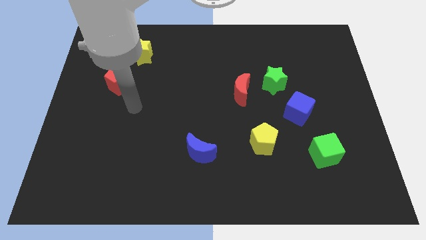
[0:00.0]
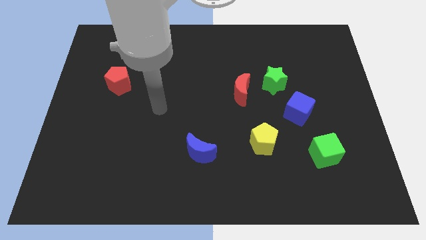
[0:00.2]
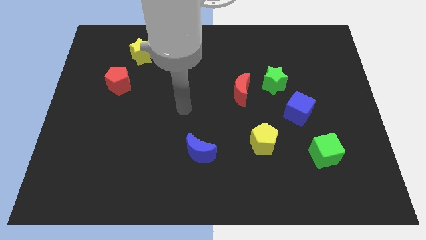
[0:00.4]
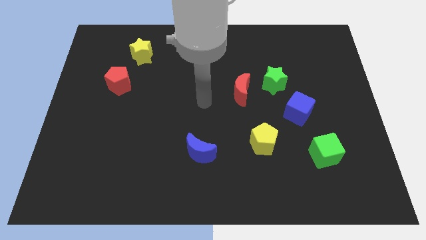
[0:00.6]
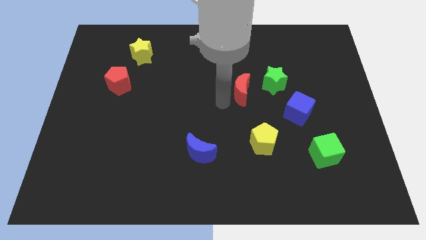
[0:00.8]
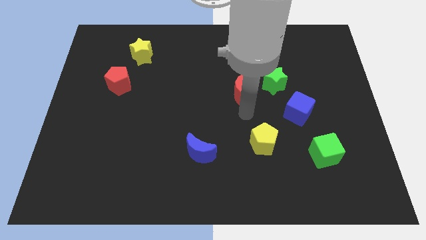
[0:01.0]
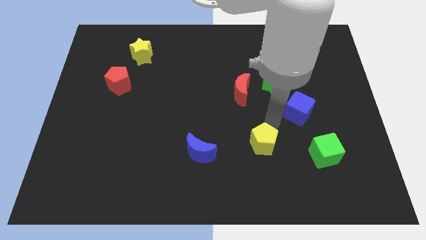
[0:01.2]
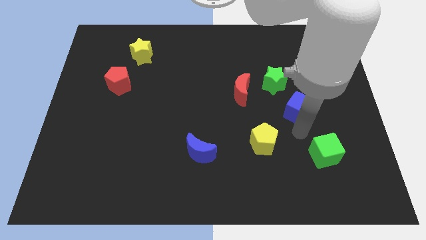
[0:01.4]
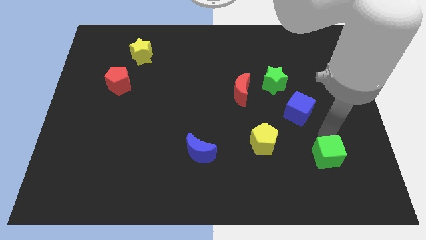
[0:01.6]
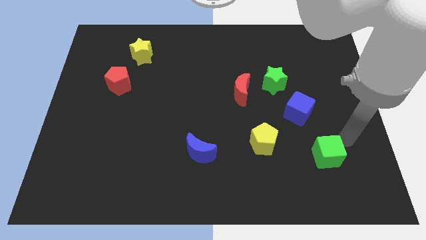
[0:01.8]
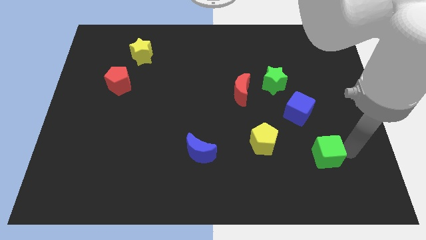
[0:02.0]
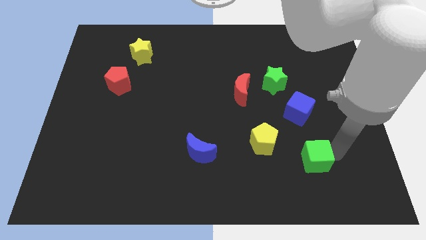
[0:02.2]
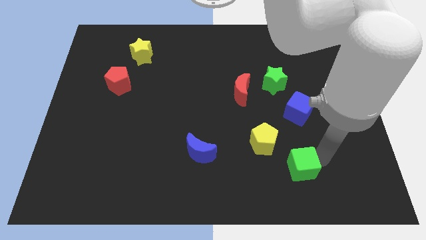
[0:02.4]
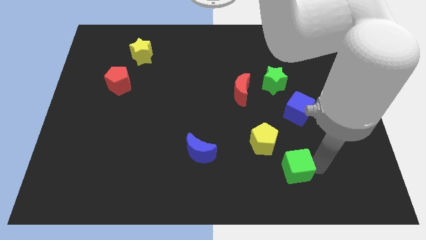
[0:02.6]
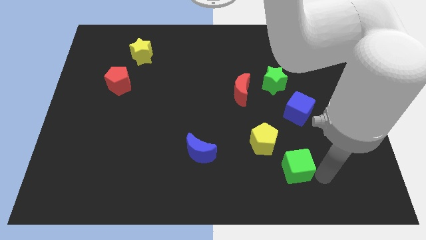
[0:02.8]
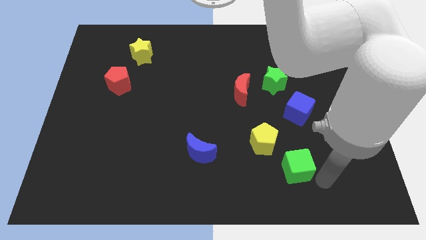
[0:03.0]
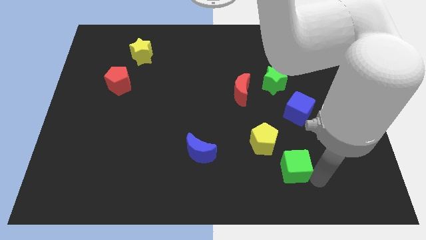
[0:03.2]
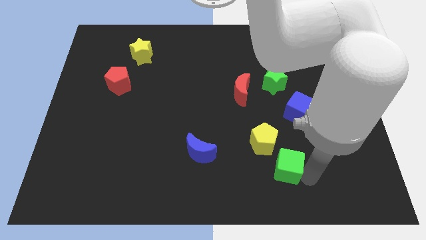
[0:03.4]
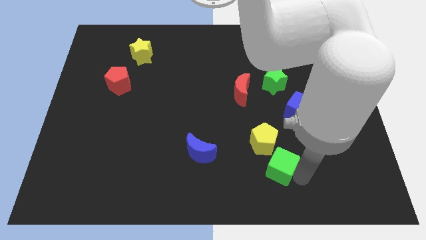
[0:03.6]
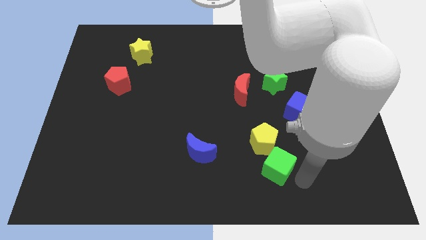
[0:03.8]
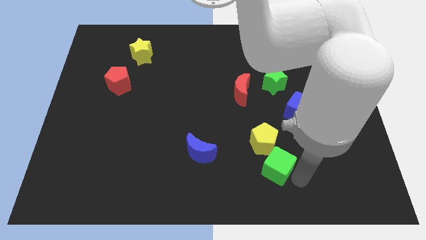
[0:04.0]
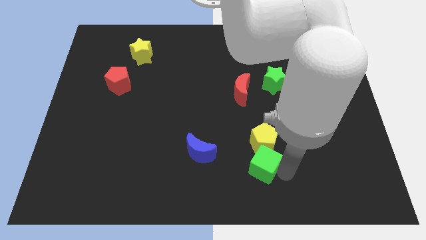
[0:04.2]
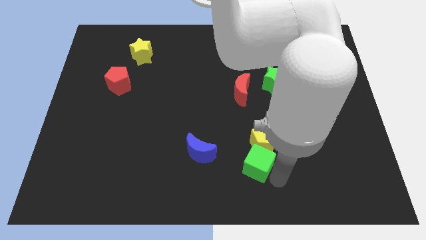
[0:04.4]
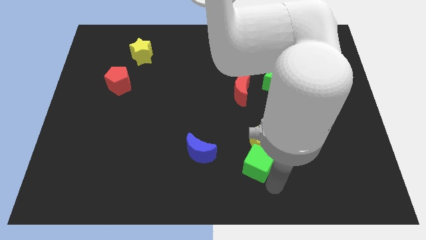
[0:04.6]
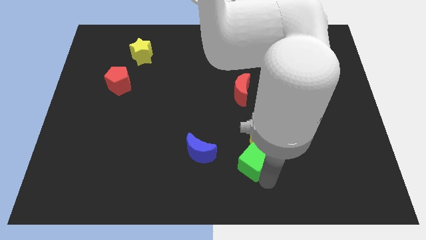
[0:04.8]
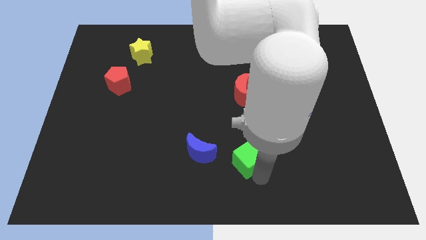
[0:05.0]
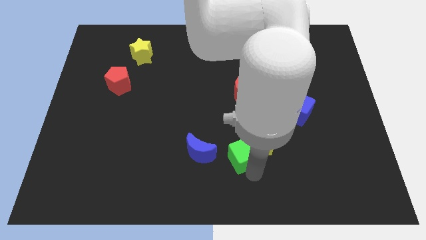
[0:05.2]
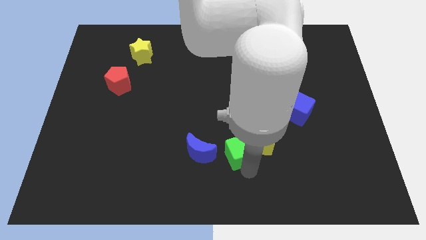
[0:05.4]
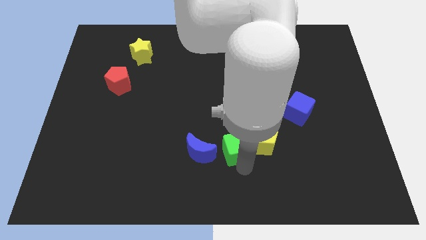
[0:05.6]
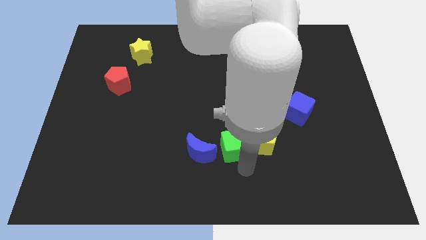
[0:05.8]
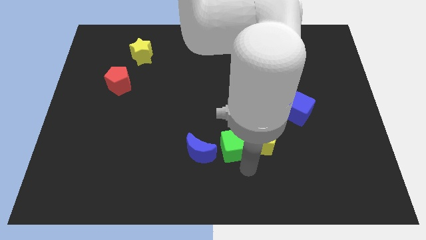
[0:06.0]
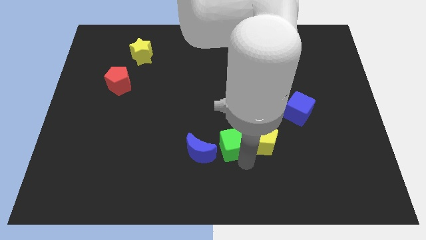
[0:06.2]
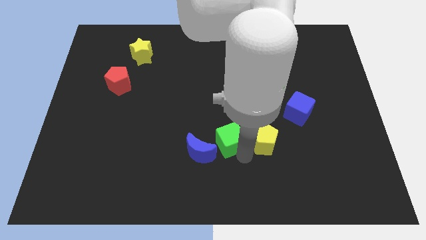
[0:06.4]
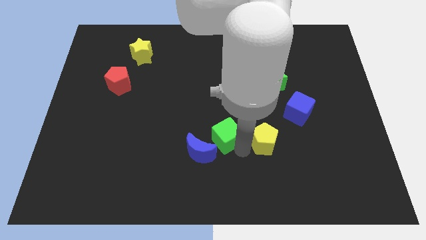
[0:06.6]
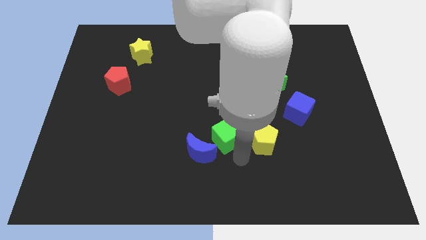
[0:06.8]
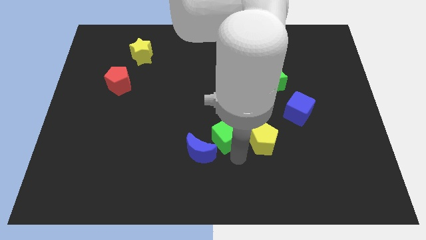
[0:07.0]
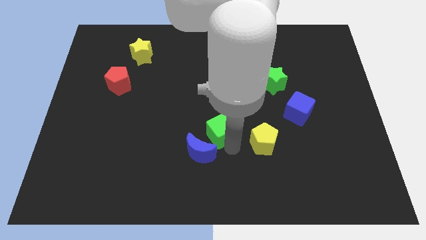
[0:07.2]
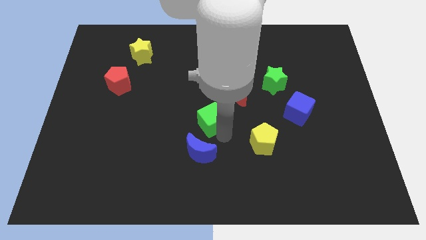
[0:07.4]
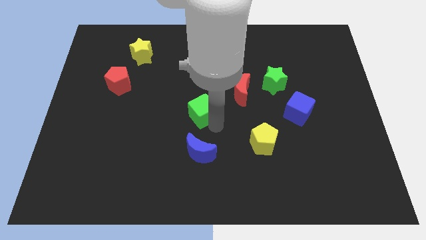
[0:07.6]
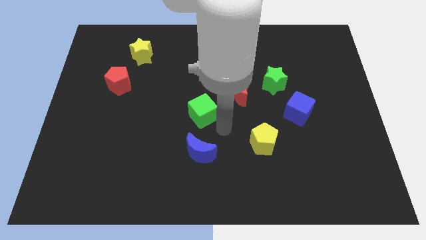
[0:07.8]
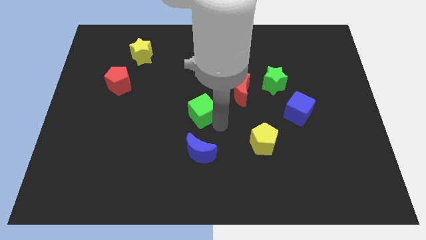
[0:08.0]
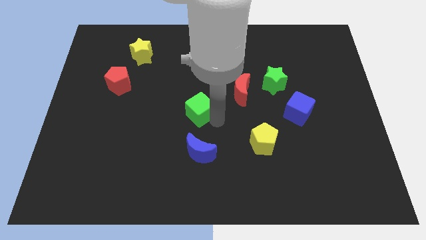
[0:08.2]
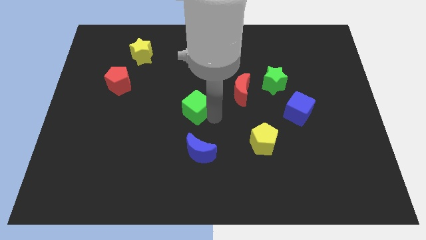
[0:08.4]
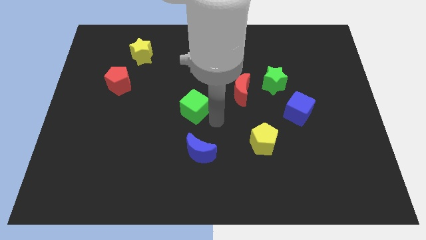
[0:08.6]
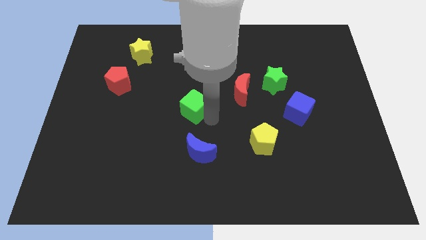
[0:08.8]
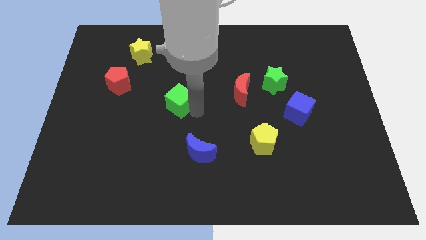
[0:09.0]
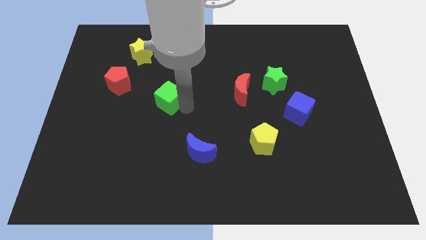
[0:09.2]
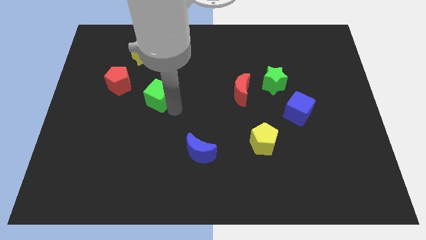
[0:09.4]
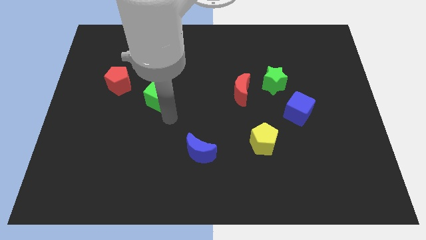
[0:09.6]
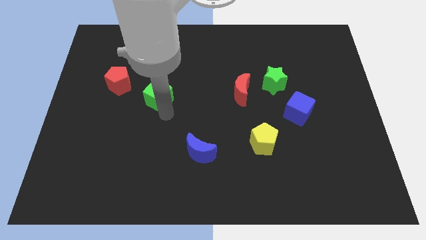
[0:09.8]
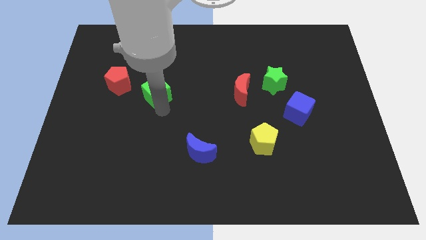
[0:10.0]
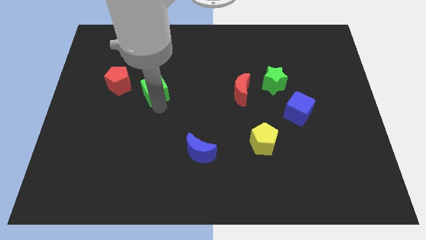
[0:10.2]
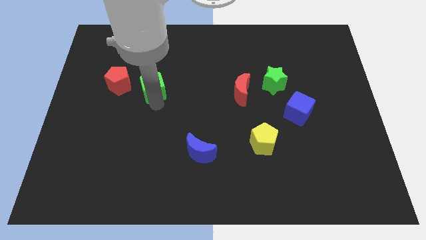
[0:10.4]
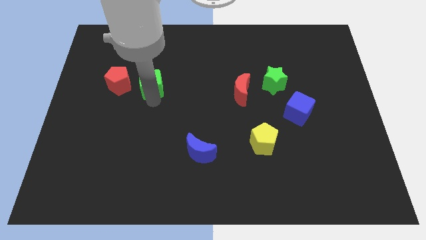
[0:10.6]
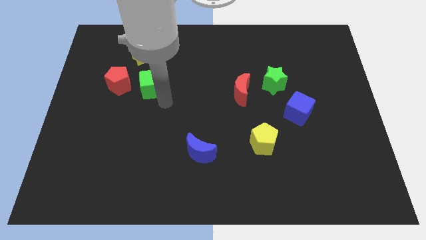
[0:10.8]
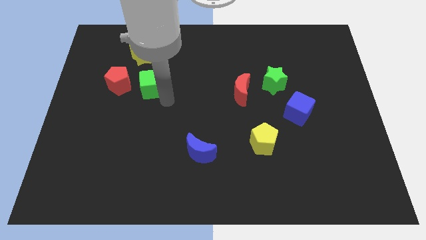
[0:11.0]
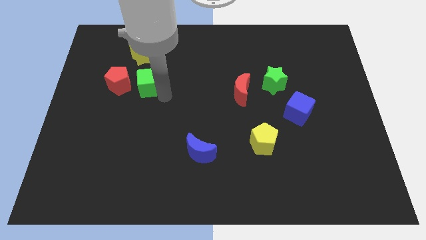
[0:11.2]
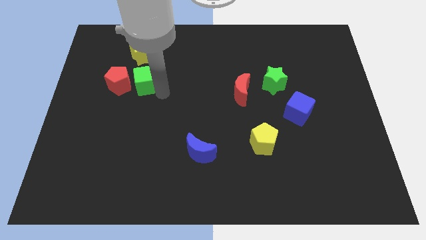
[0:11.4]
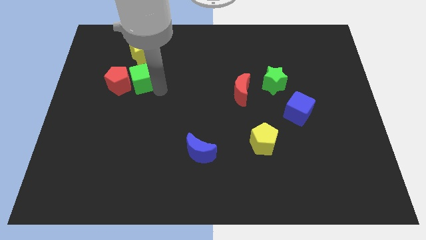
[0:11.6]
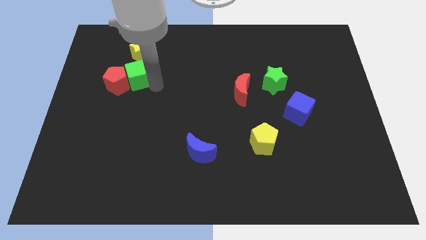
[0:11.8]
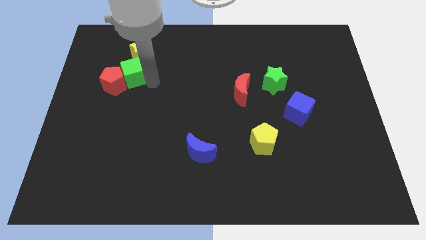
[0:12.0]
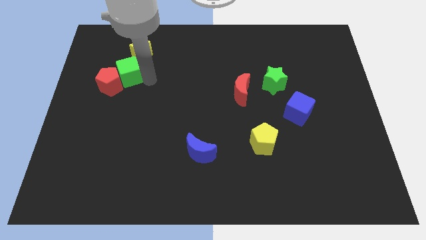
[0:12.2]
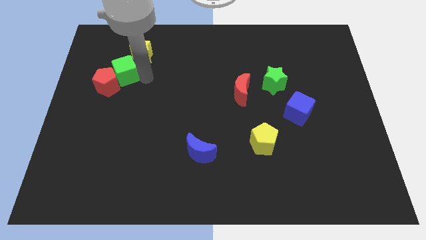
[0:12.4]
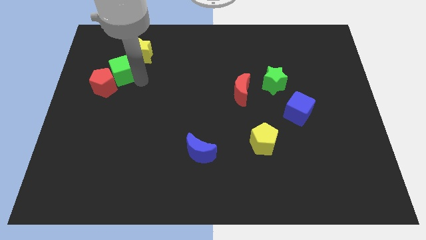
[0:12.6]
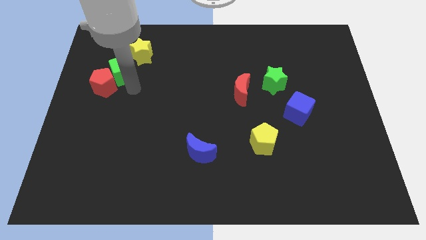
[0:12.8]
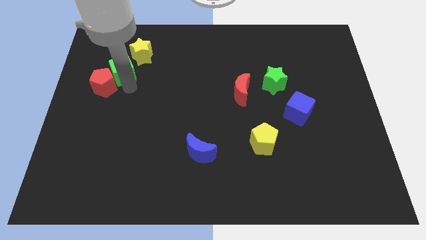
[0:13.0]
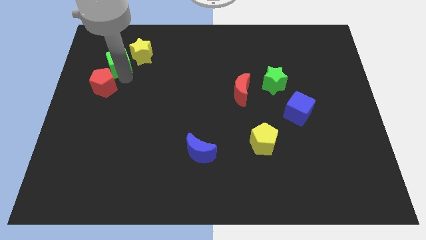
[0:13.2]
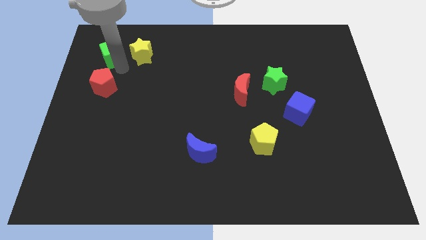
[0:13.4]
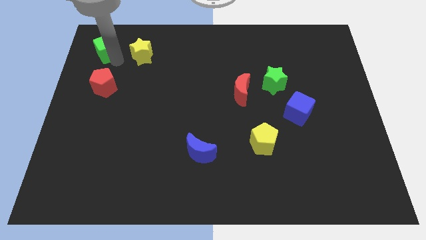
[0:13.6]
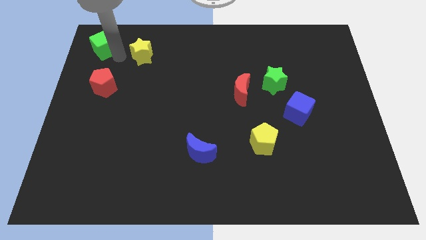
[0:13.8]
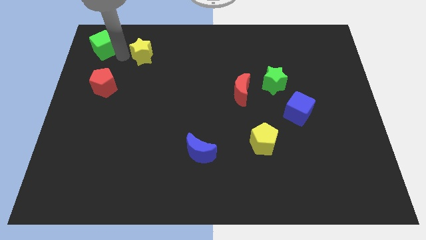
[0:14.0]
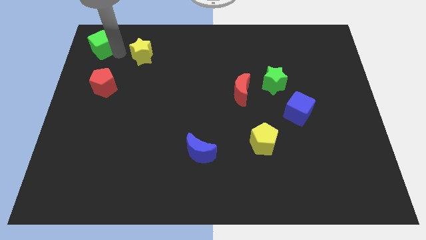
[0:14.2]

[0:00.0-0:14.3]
slide the green cube to the top left corner
